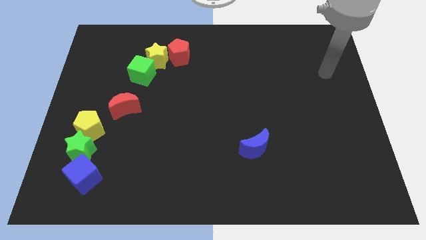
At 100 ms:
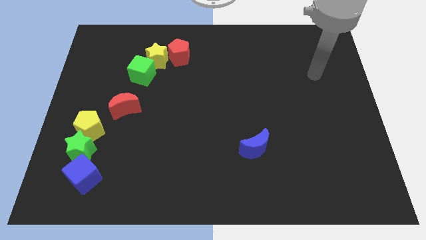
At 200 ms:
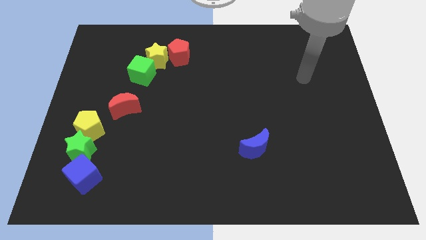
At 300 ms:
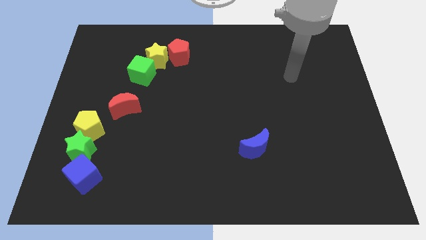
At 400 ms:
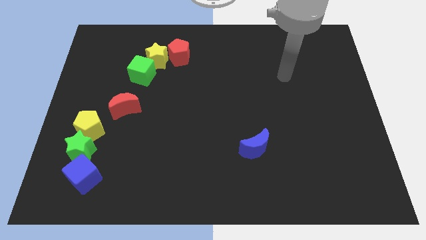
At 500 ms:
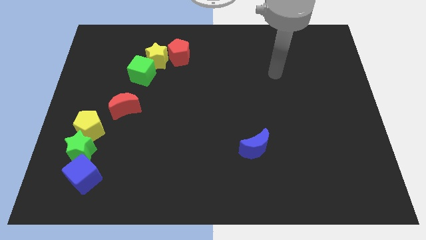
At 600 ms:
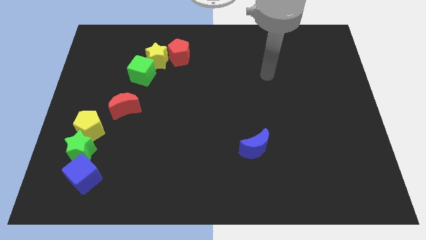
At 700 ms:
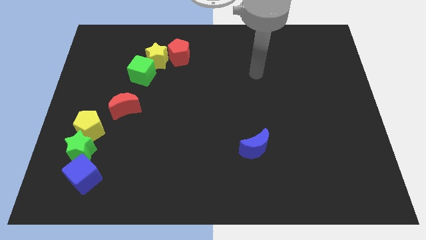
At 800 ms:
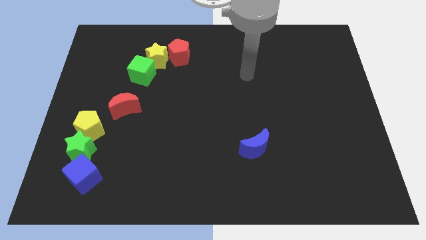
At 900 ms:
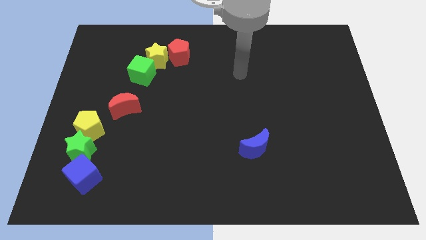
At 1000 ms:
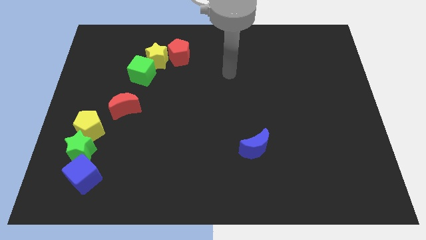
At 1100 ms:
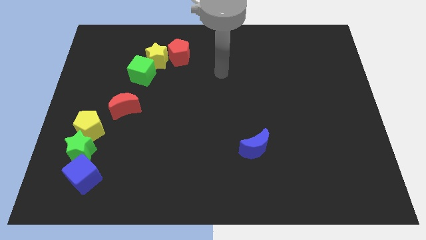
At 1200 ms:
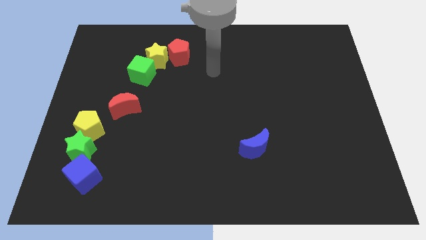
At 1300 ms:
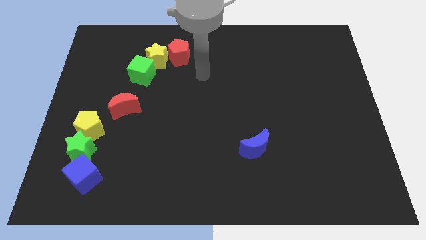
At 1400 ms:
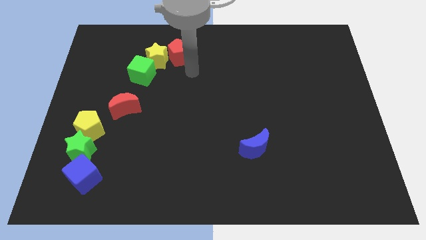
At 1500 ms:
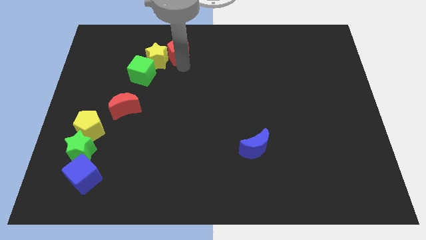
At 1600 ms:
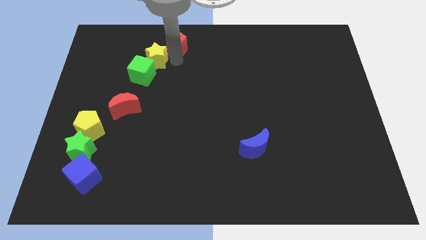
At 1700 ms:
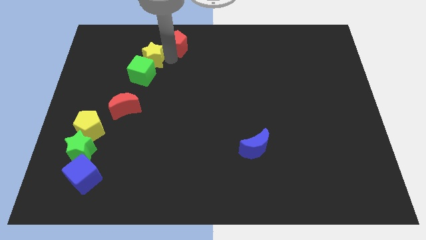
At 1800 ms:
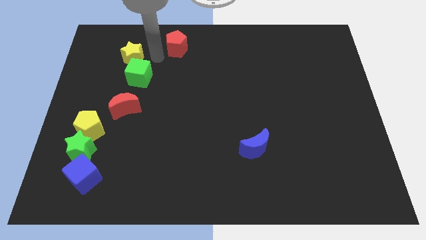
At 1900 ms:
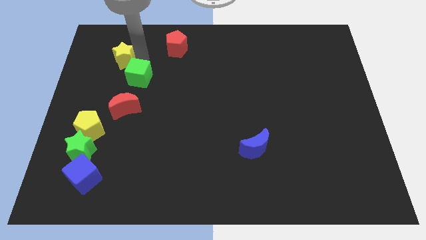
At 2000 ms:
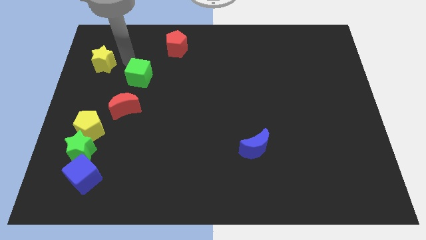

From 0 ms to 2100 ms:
pull the green cube apart from the yellow star

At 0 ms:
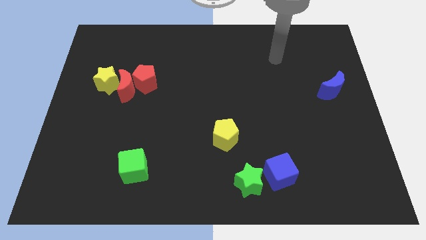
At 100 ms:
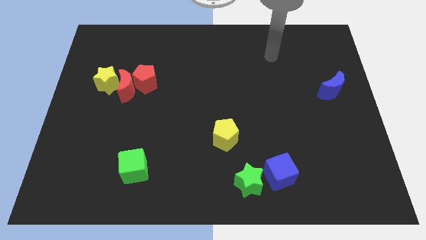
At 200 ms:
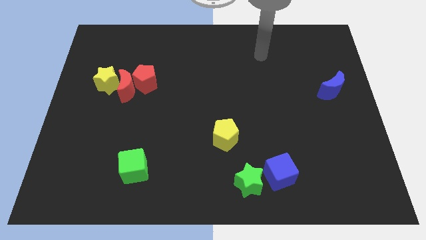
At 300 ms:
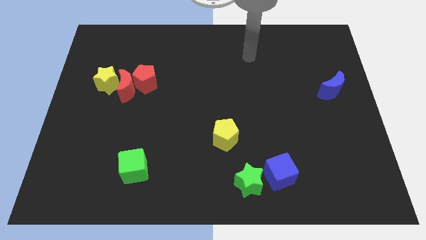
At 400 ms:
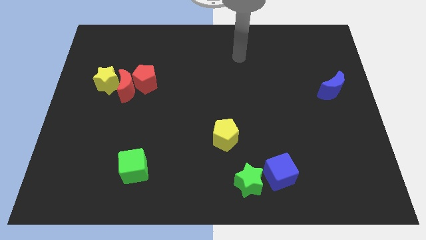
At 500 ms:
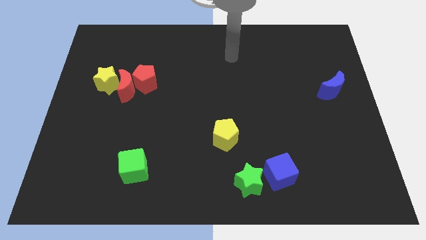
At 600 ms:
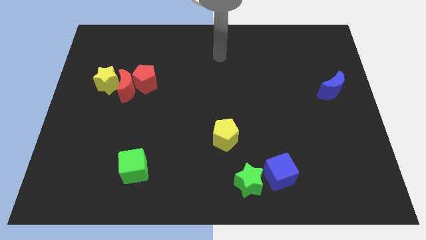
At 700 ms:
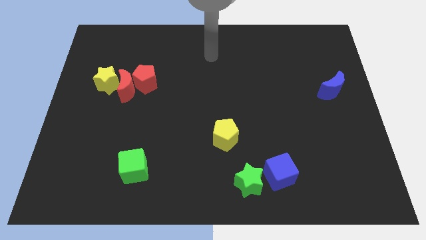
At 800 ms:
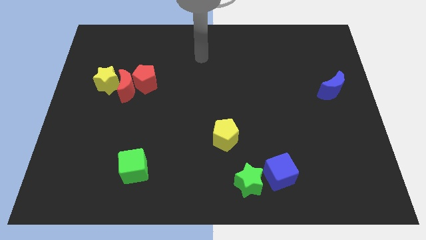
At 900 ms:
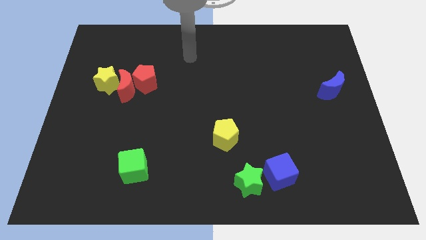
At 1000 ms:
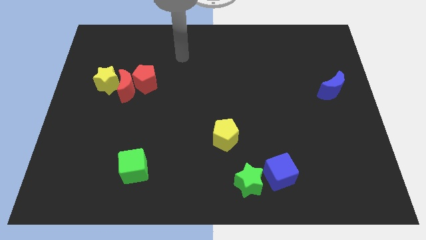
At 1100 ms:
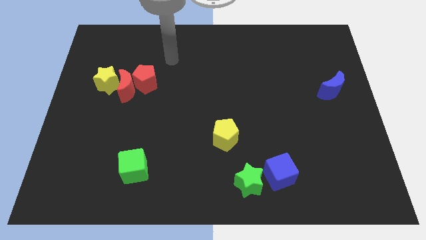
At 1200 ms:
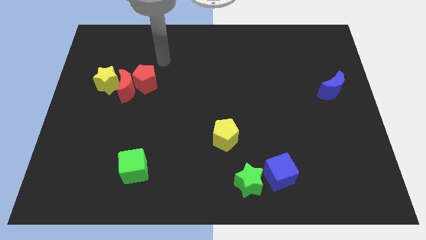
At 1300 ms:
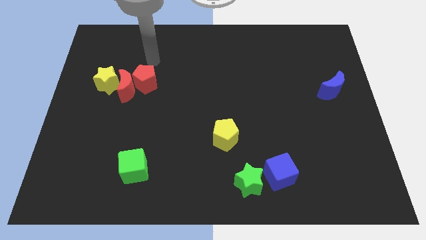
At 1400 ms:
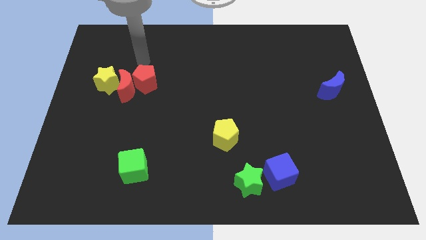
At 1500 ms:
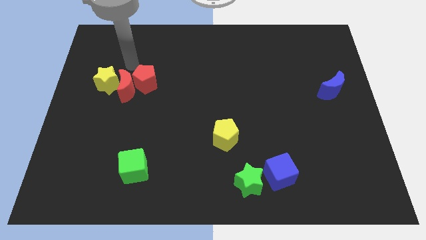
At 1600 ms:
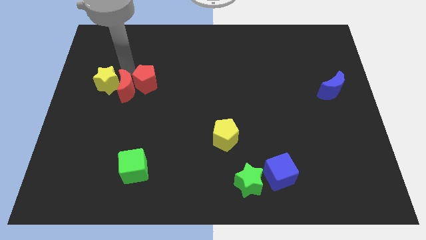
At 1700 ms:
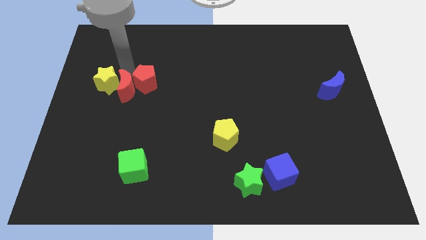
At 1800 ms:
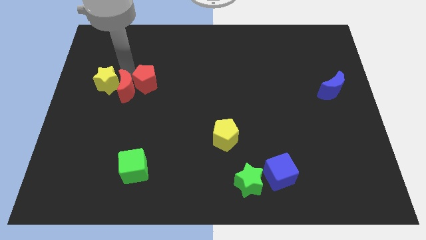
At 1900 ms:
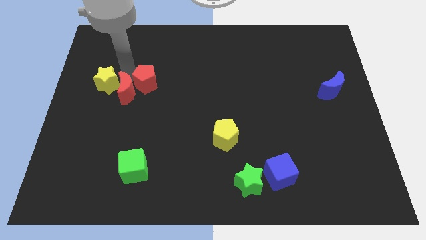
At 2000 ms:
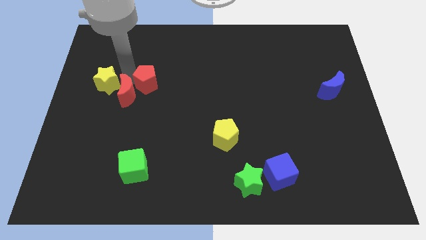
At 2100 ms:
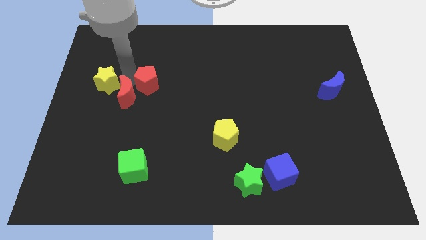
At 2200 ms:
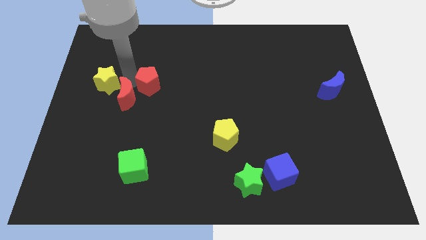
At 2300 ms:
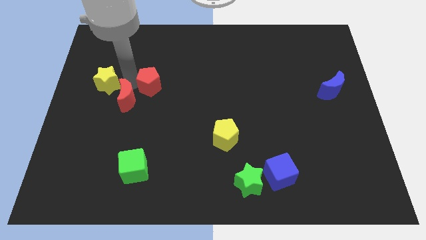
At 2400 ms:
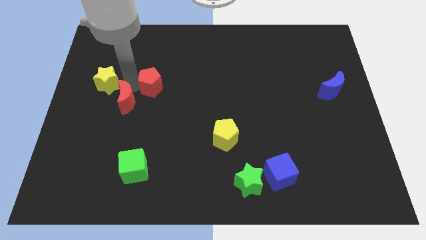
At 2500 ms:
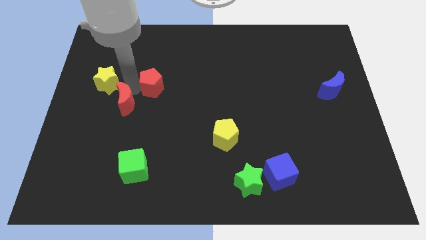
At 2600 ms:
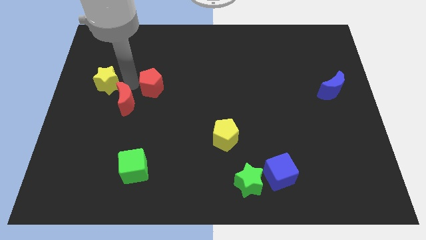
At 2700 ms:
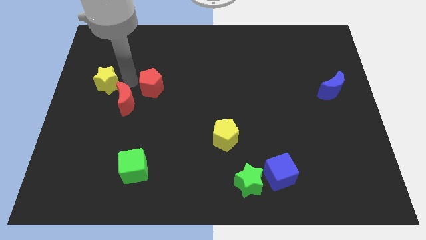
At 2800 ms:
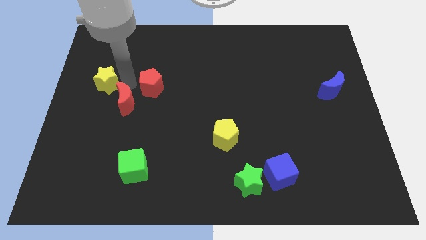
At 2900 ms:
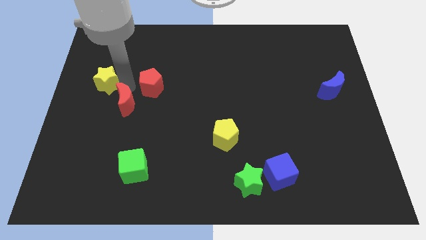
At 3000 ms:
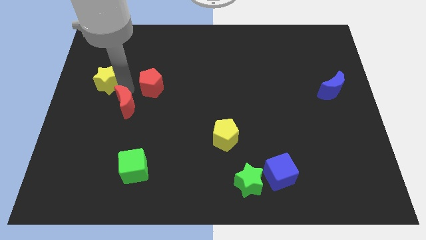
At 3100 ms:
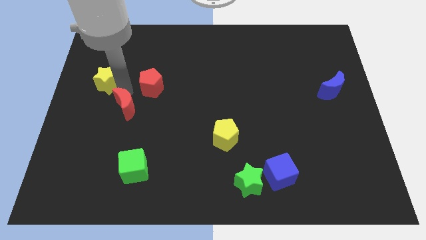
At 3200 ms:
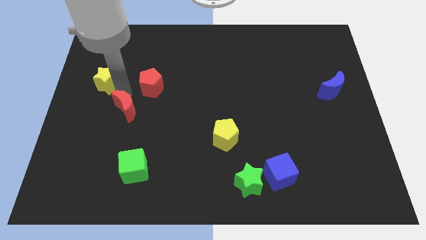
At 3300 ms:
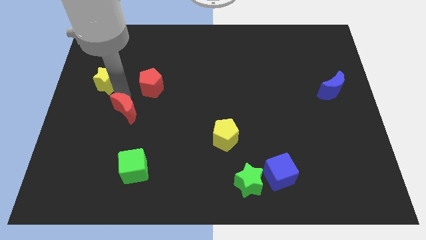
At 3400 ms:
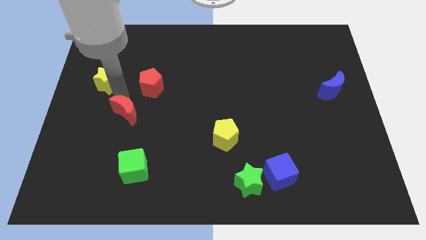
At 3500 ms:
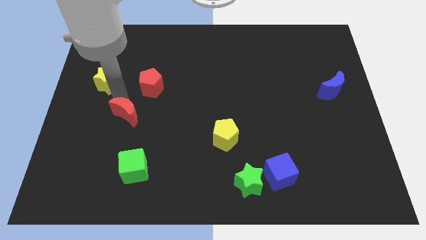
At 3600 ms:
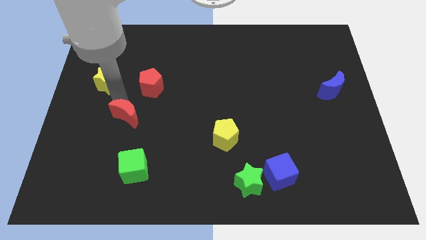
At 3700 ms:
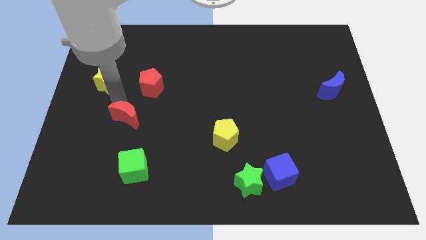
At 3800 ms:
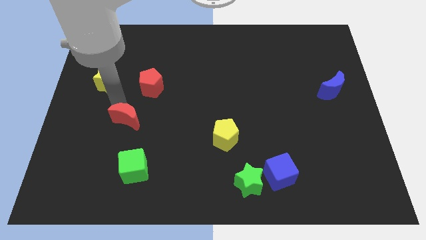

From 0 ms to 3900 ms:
separate the red moon from the red pentagon and yellow star

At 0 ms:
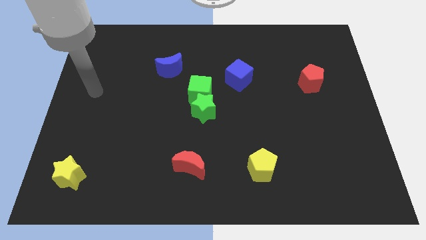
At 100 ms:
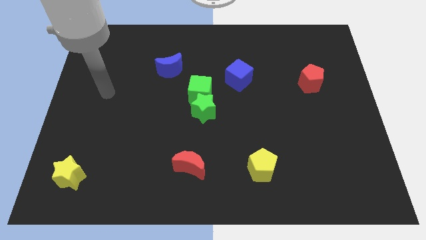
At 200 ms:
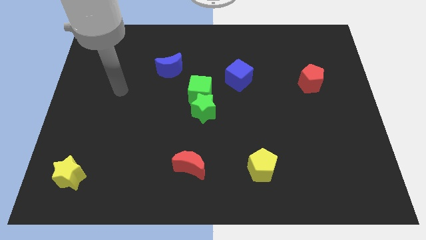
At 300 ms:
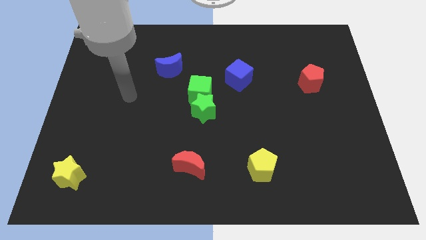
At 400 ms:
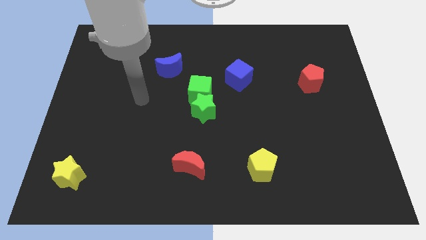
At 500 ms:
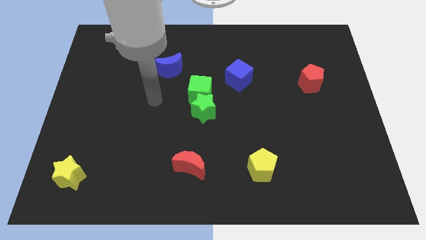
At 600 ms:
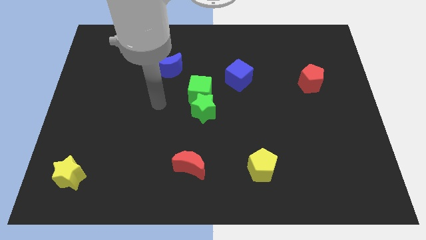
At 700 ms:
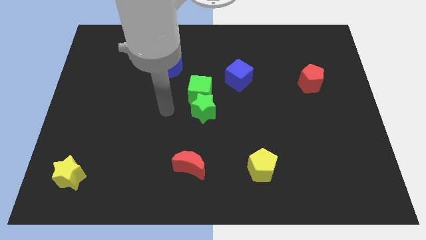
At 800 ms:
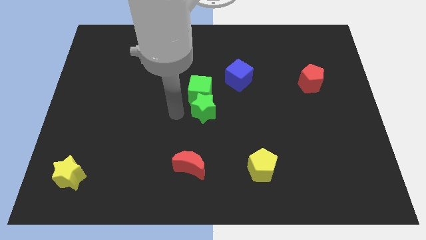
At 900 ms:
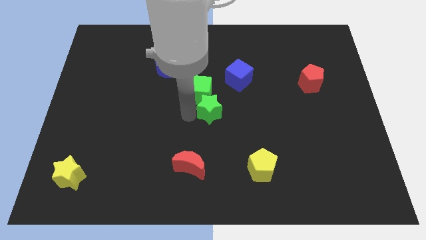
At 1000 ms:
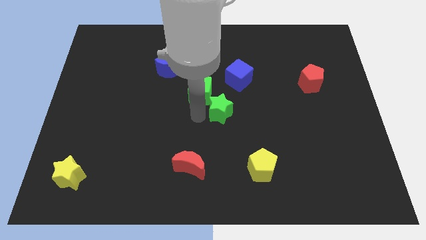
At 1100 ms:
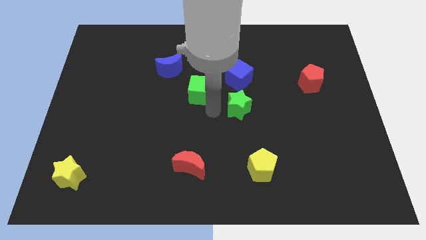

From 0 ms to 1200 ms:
pull the green cube apart from the green star

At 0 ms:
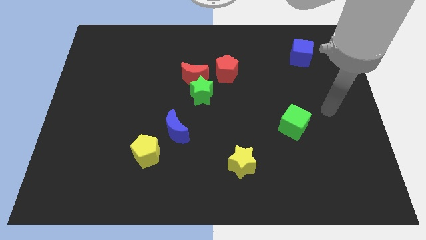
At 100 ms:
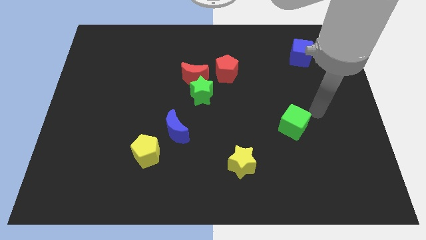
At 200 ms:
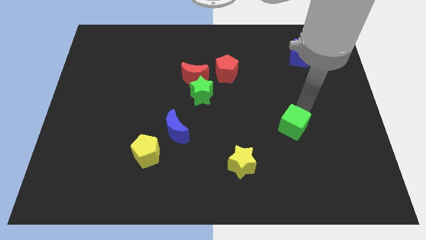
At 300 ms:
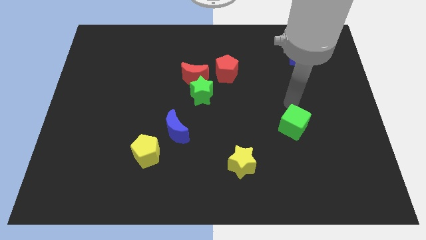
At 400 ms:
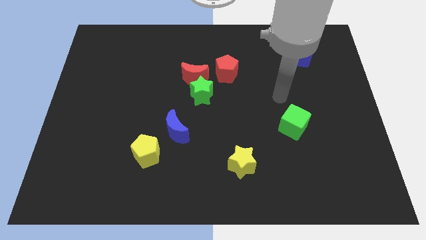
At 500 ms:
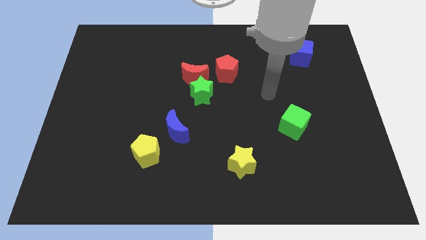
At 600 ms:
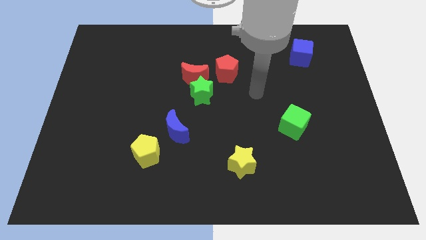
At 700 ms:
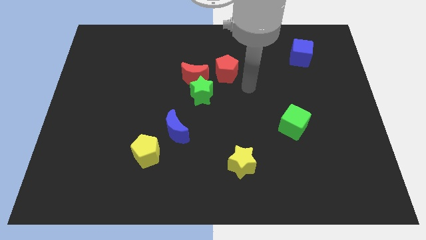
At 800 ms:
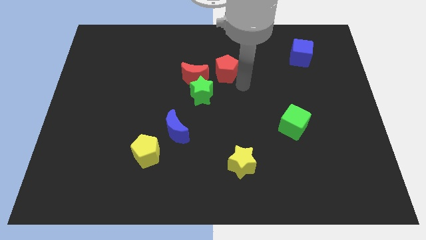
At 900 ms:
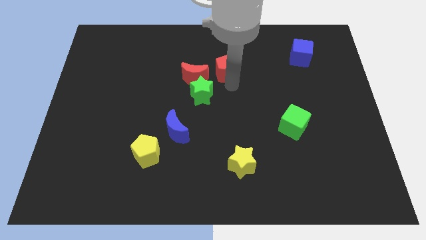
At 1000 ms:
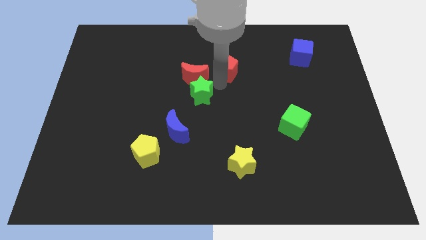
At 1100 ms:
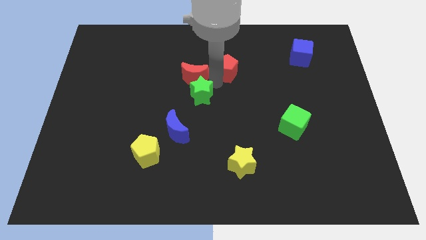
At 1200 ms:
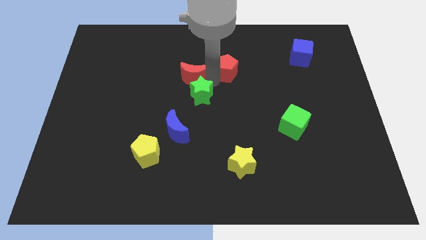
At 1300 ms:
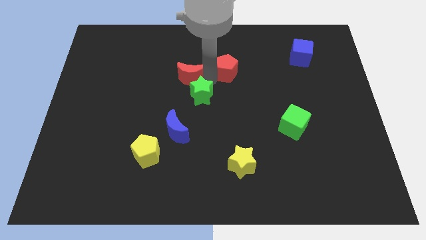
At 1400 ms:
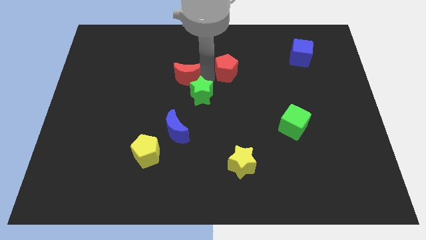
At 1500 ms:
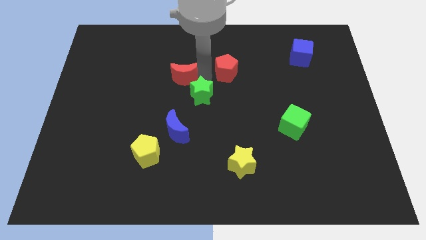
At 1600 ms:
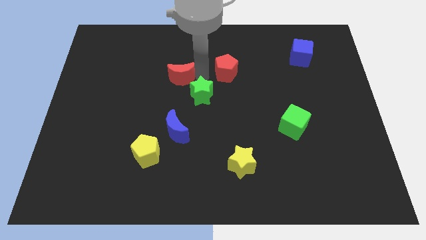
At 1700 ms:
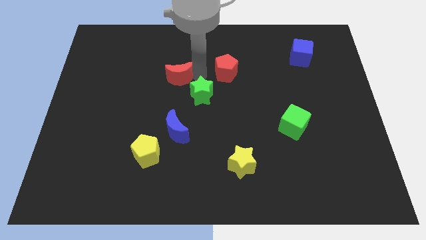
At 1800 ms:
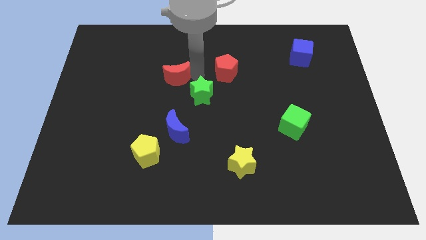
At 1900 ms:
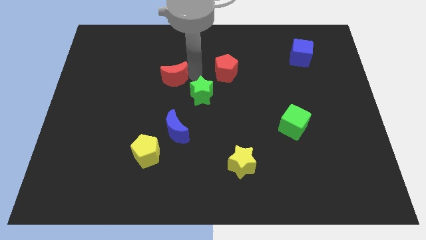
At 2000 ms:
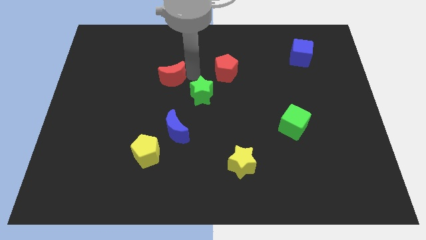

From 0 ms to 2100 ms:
move the red moon away from the green star and red pentagon
